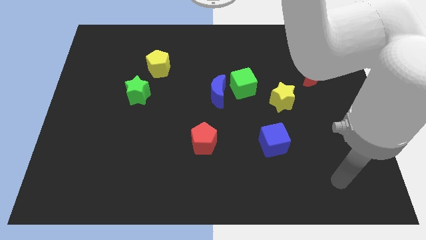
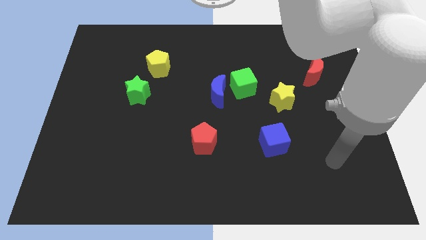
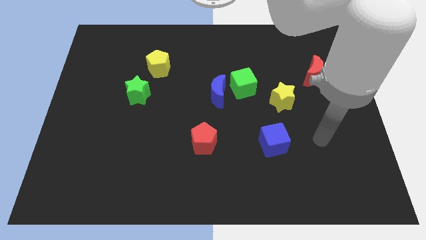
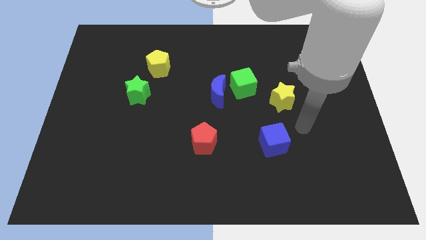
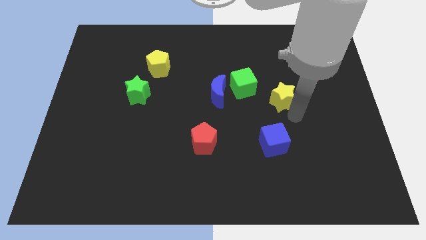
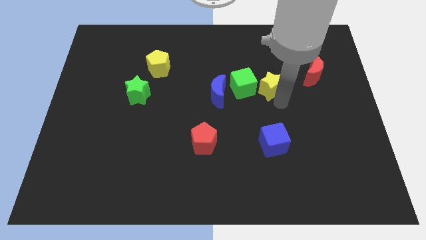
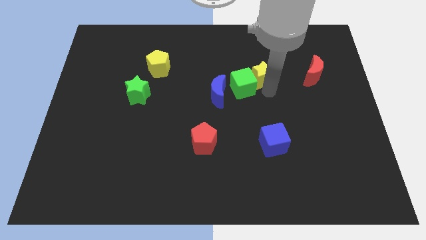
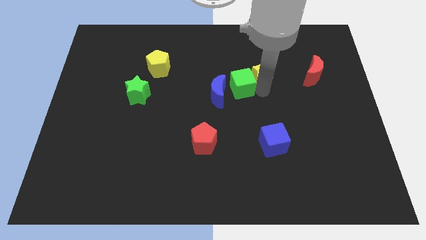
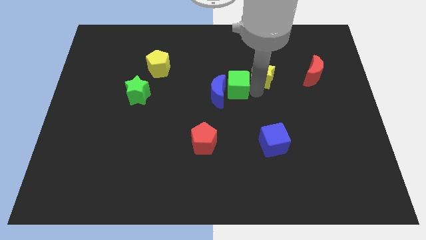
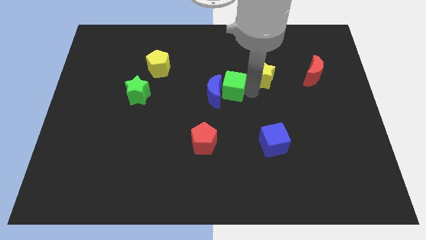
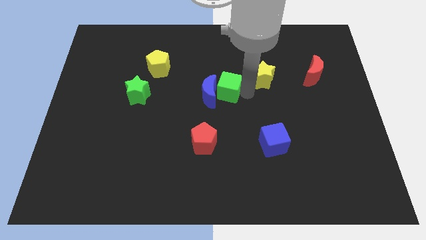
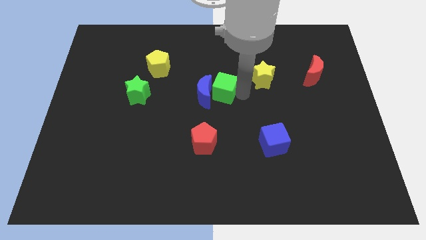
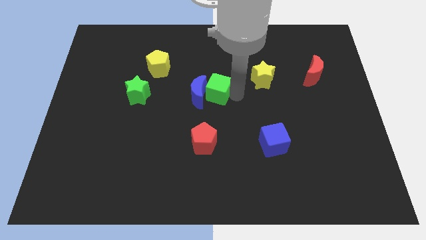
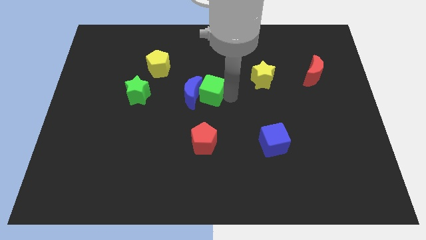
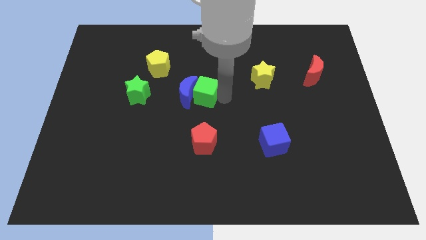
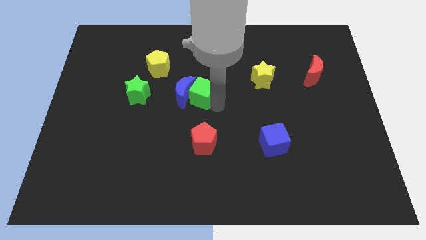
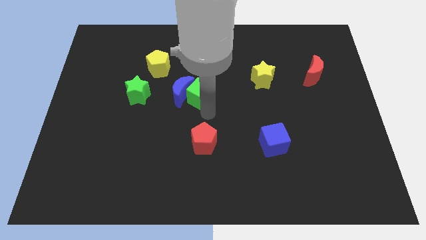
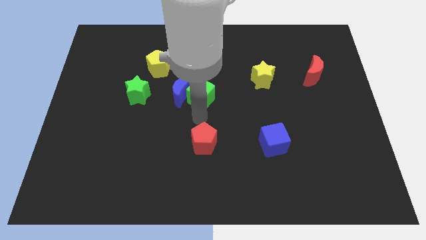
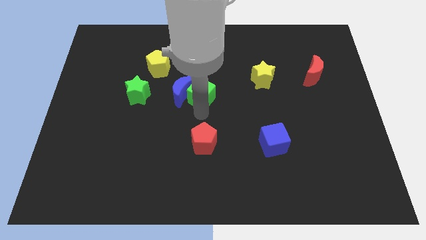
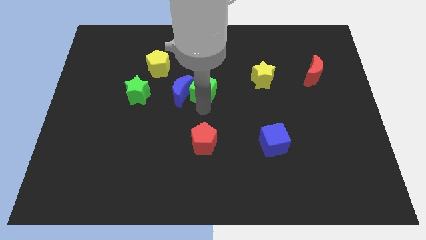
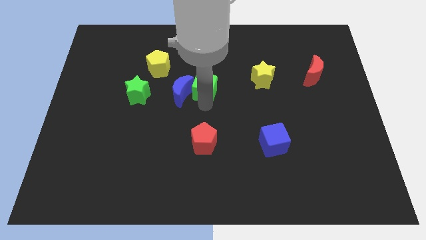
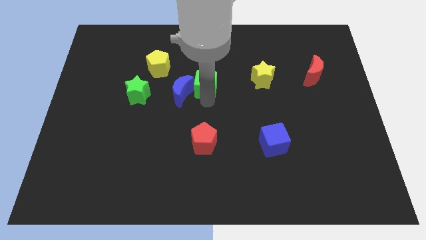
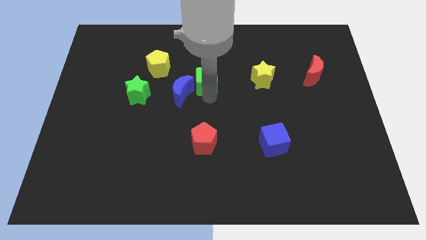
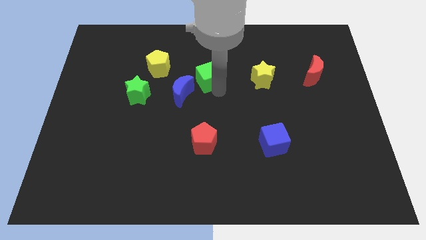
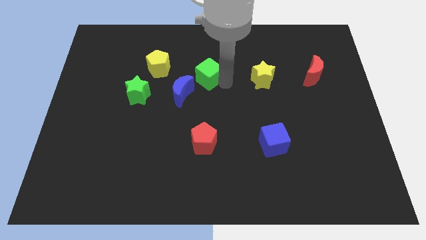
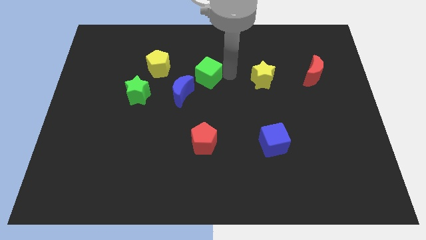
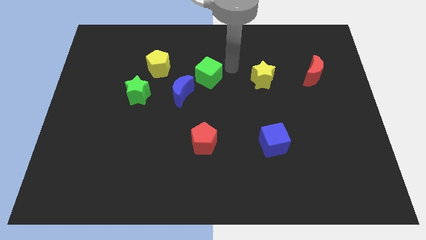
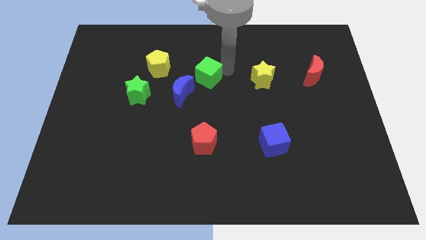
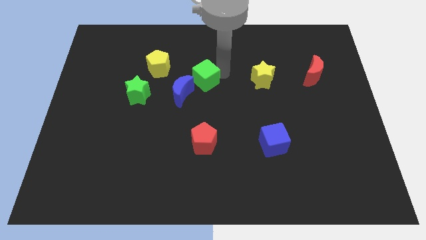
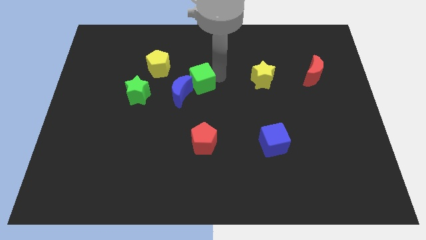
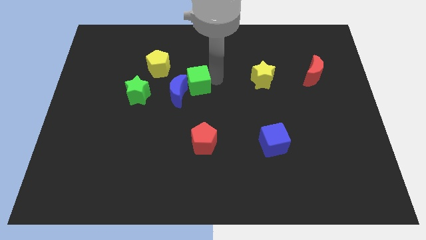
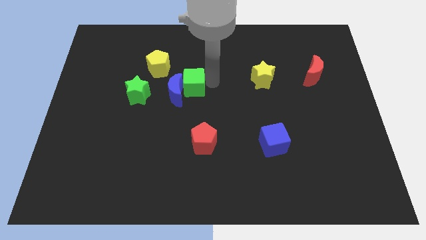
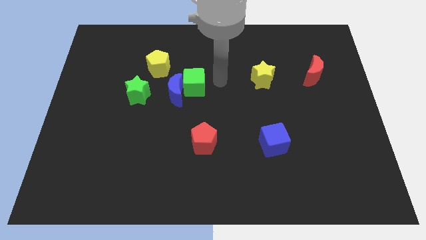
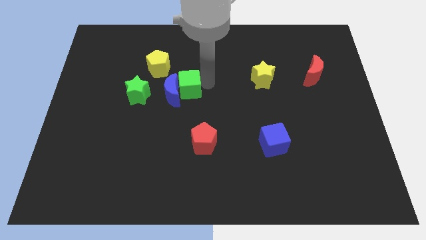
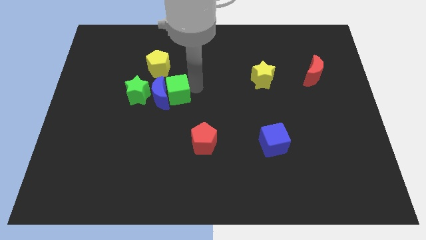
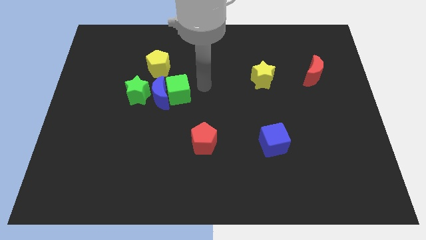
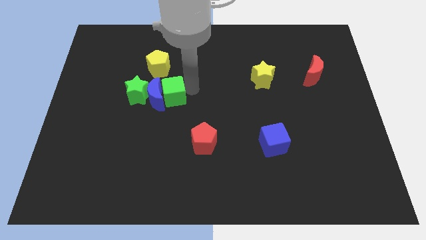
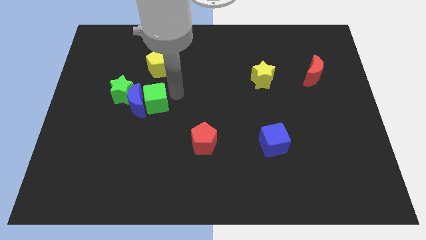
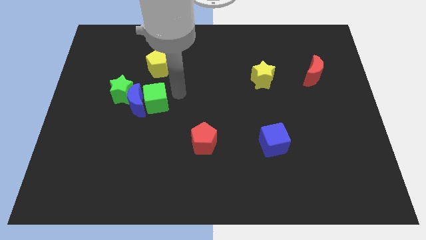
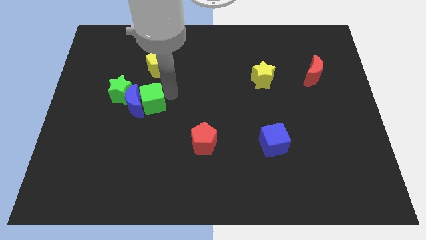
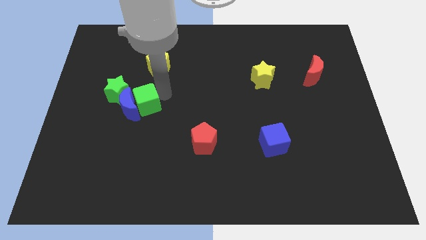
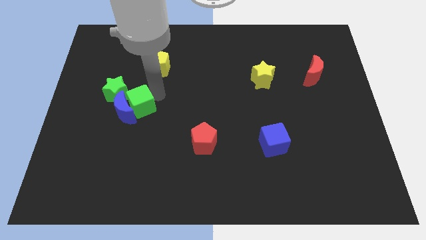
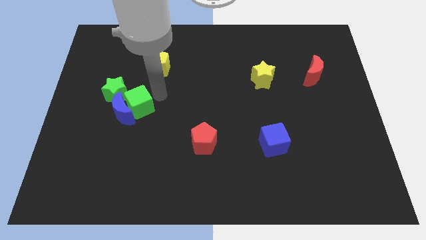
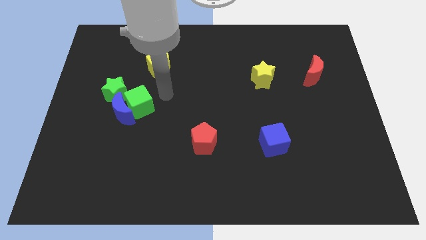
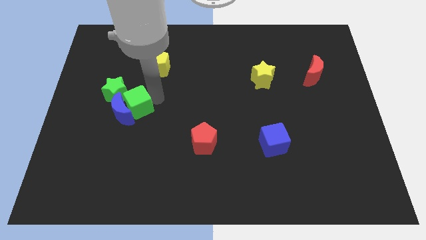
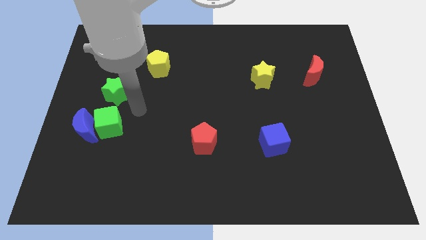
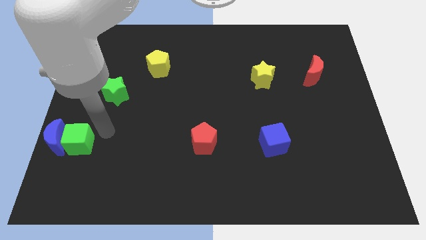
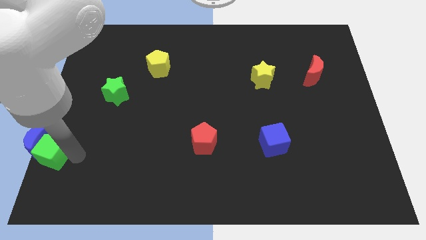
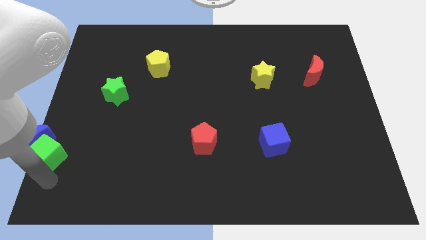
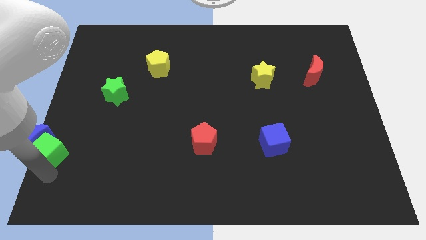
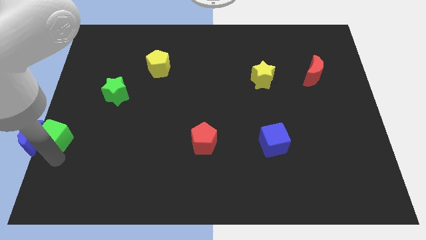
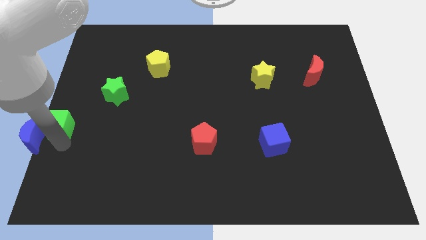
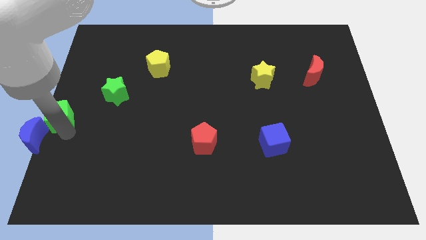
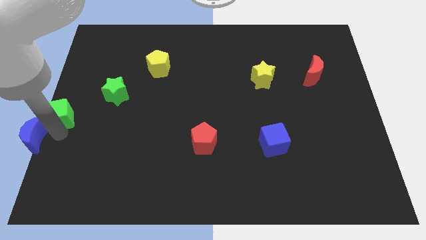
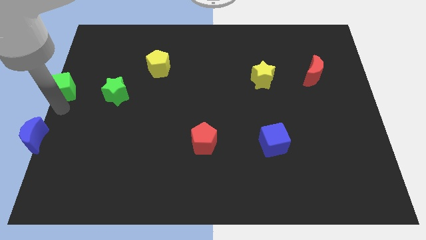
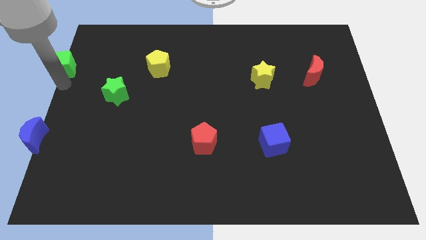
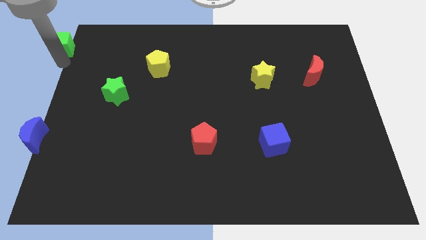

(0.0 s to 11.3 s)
push the green cube to the top left of the board

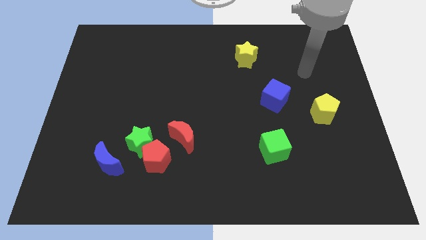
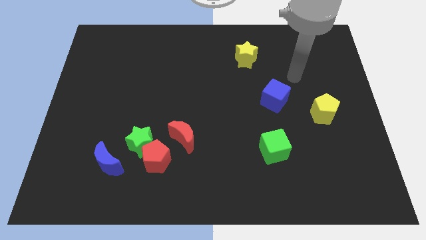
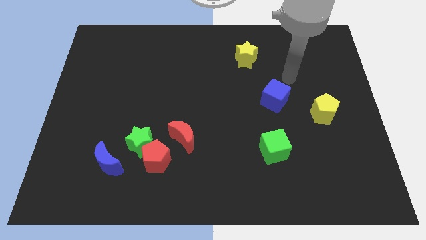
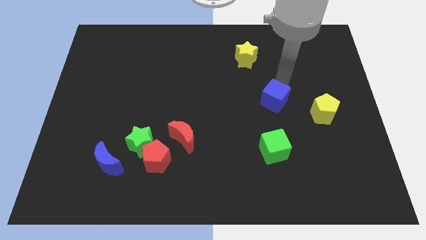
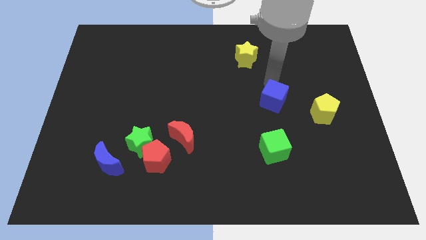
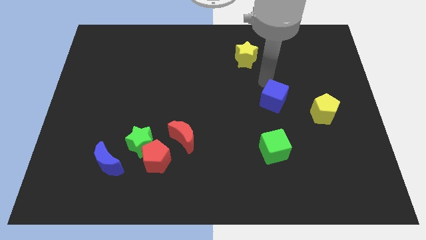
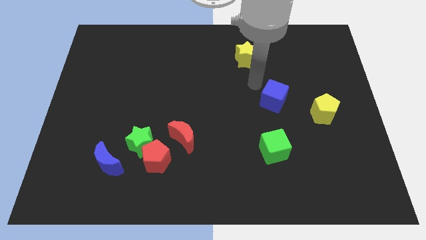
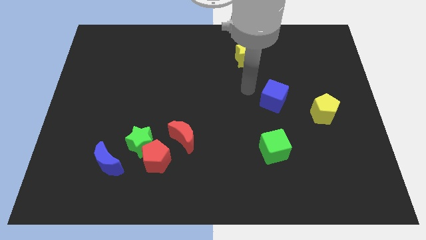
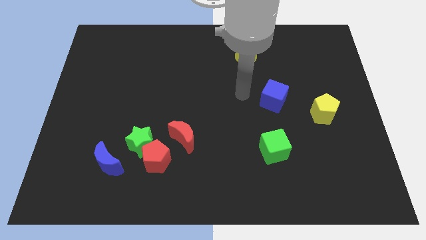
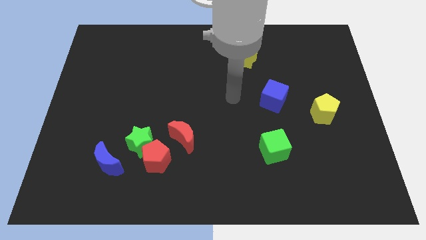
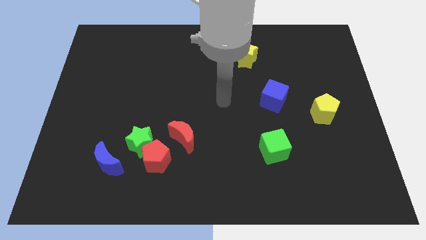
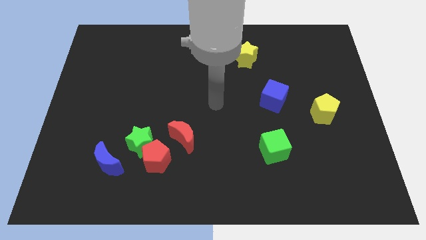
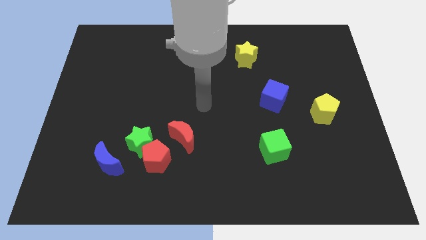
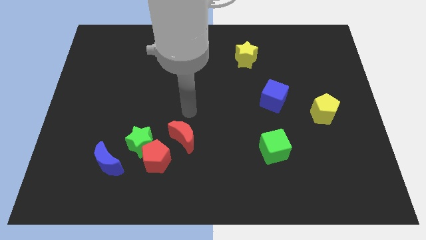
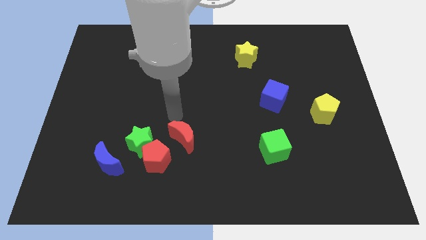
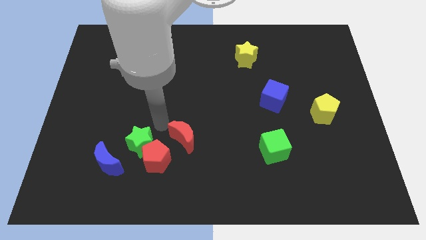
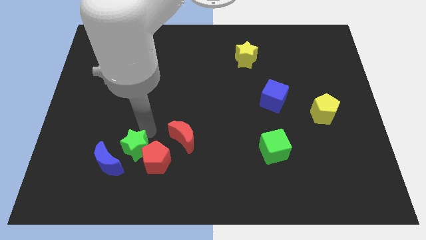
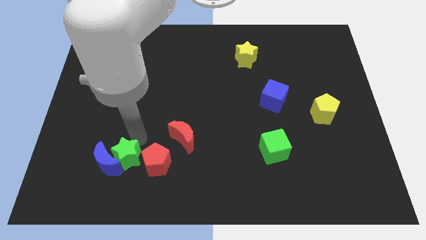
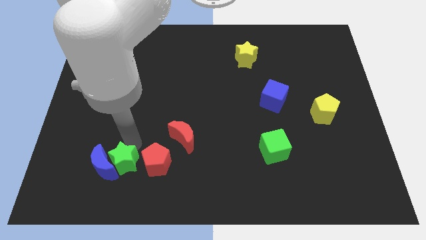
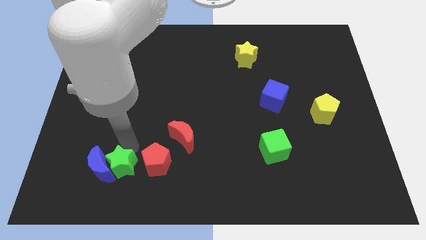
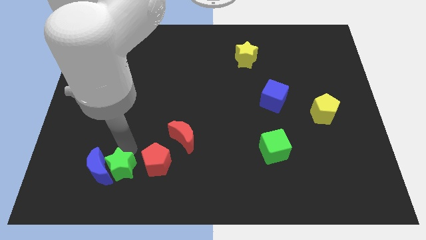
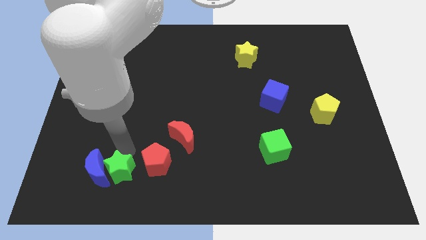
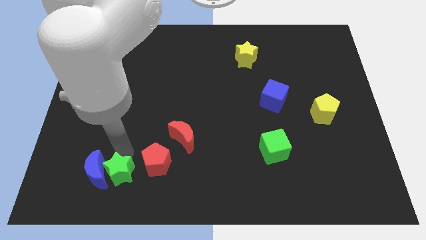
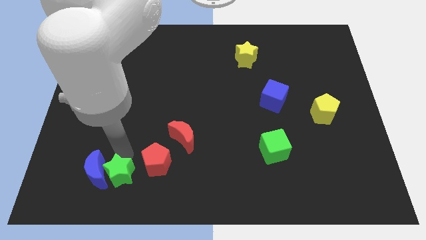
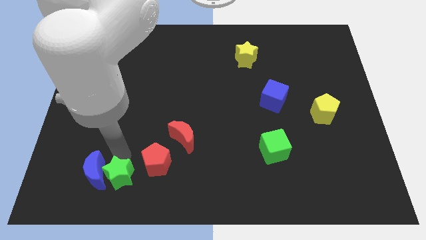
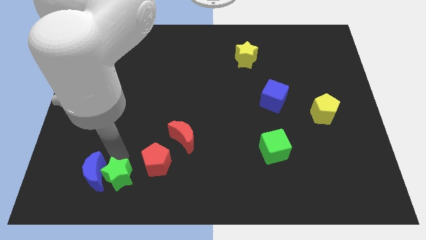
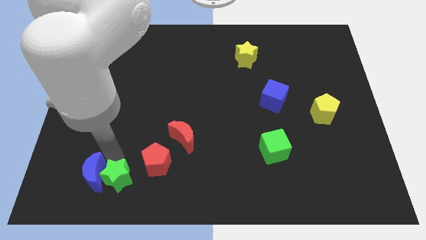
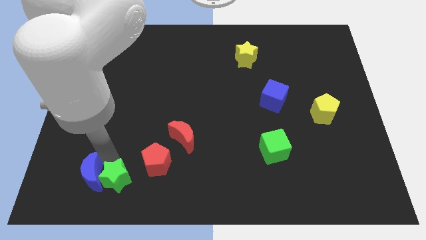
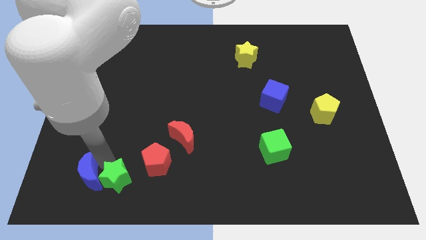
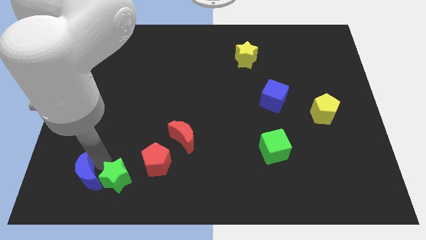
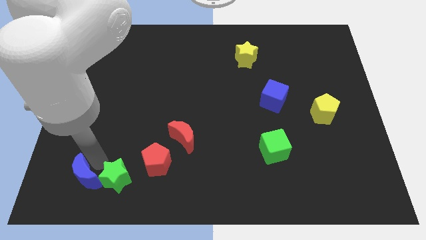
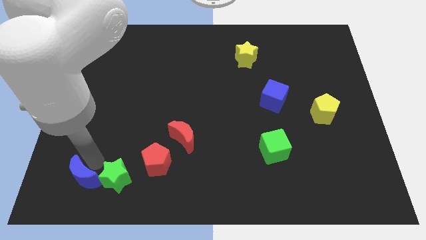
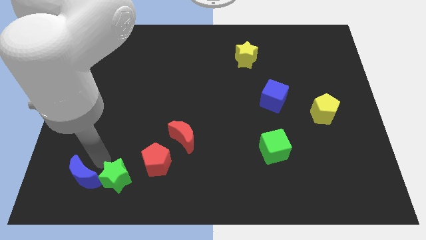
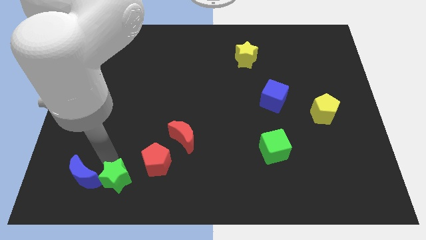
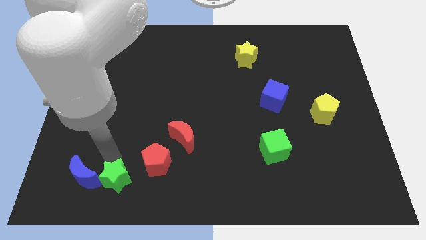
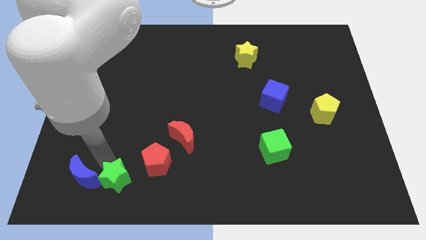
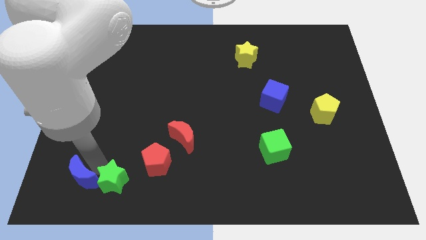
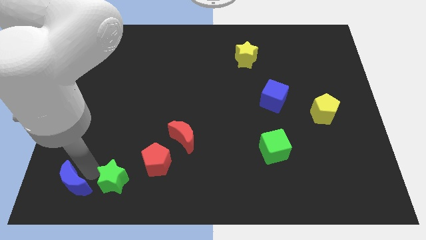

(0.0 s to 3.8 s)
move the blue moon to the bottom left corner
